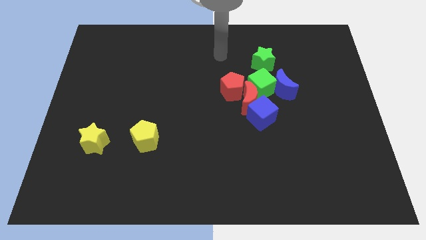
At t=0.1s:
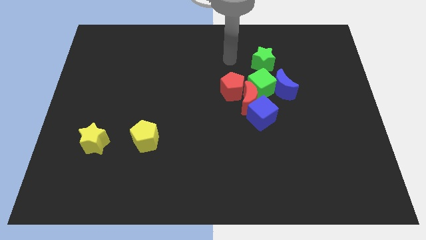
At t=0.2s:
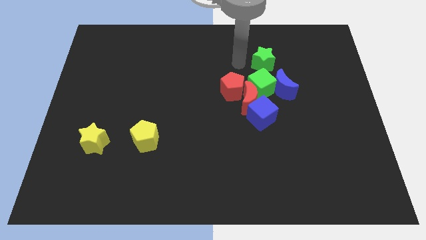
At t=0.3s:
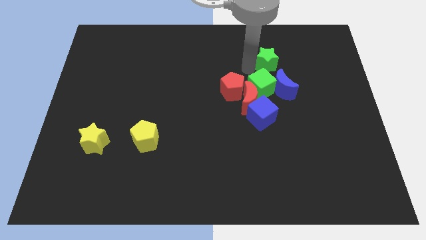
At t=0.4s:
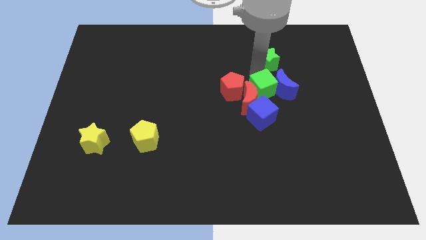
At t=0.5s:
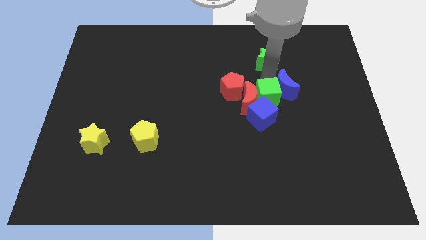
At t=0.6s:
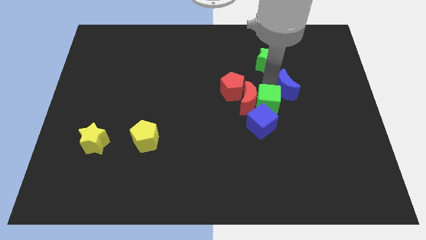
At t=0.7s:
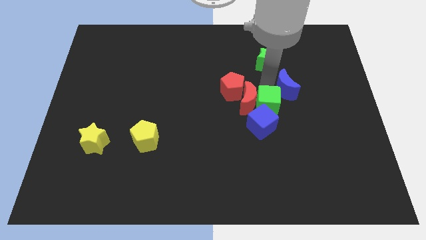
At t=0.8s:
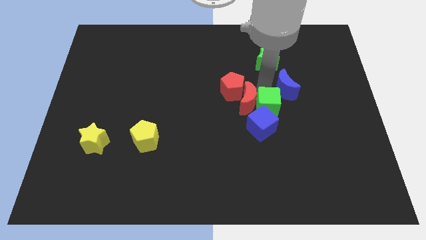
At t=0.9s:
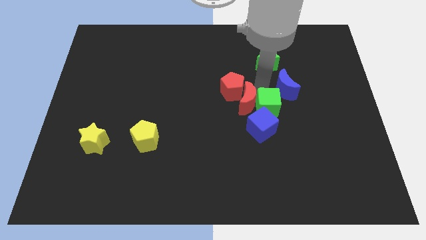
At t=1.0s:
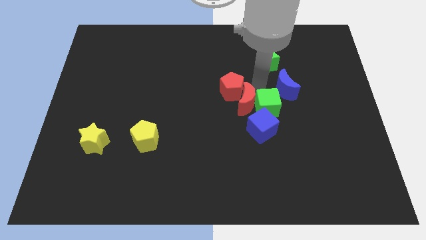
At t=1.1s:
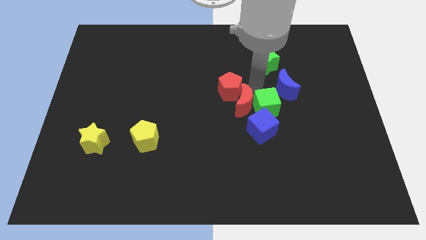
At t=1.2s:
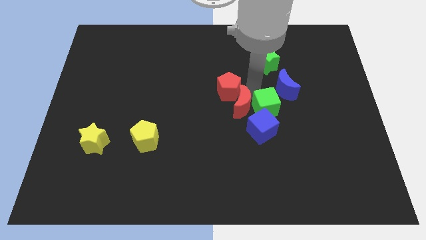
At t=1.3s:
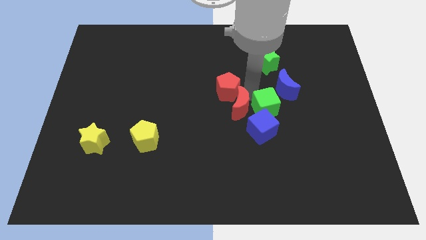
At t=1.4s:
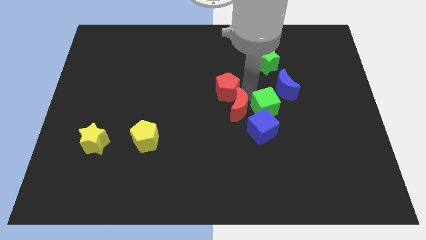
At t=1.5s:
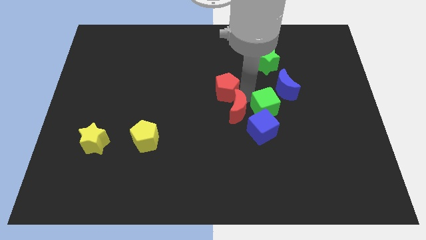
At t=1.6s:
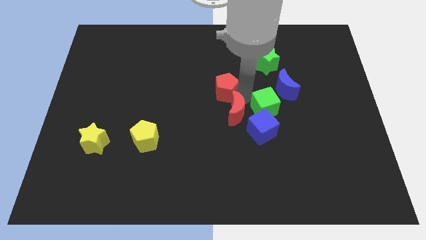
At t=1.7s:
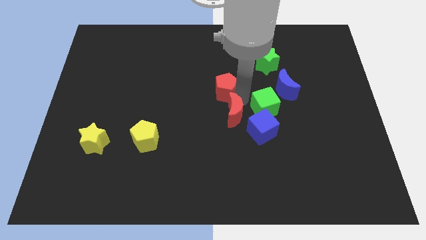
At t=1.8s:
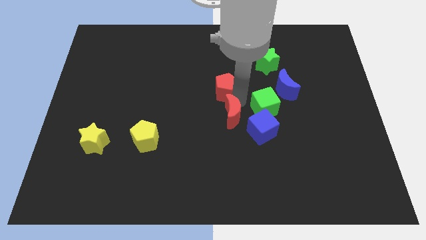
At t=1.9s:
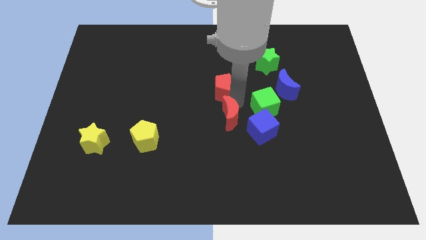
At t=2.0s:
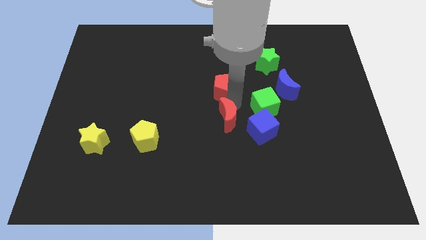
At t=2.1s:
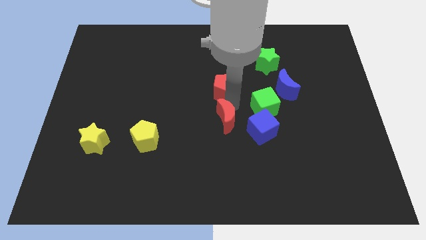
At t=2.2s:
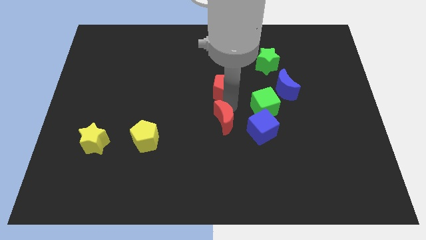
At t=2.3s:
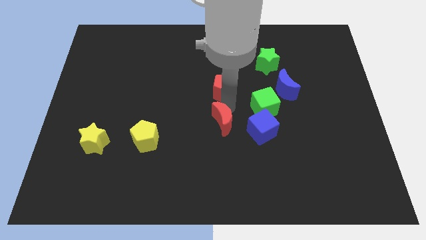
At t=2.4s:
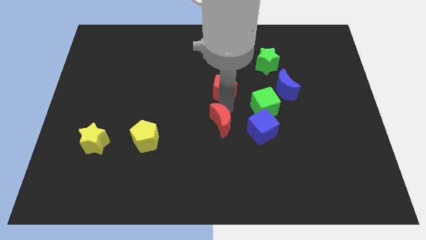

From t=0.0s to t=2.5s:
move the red moon away from the group of blocks

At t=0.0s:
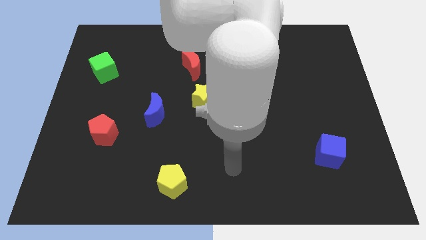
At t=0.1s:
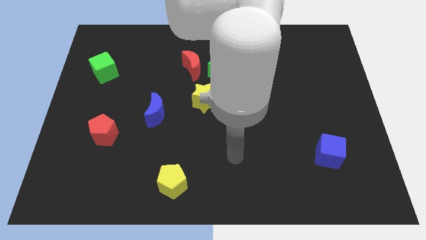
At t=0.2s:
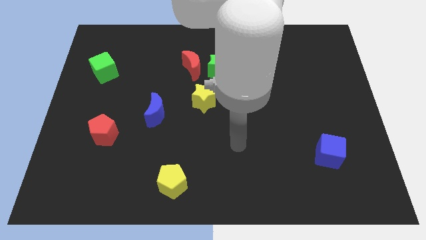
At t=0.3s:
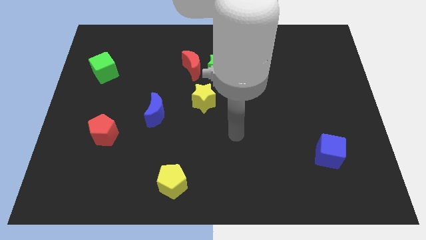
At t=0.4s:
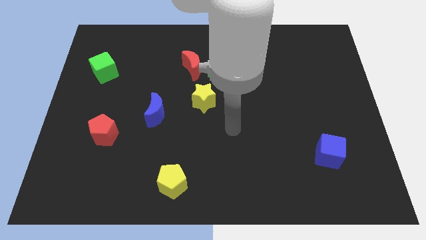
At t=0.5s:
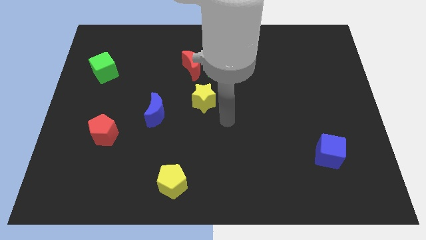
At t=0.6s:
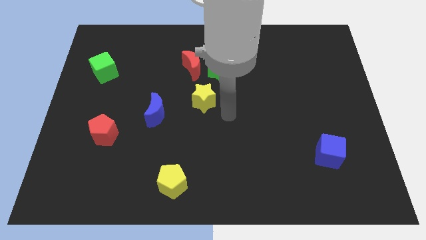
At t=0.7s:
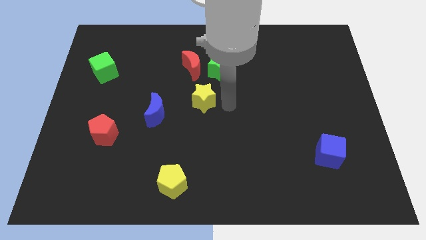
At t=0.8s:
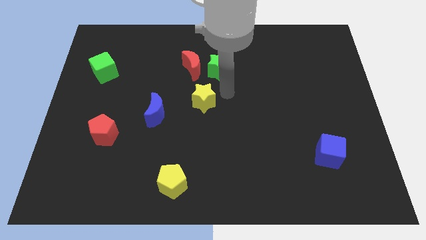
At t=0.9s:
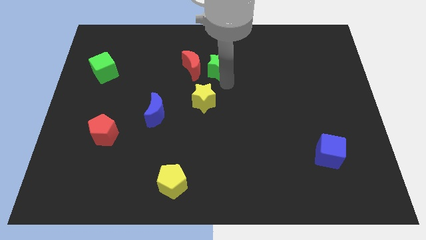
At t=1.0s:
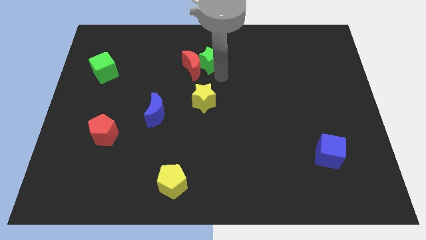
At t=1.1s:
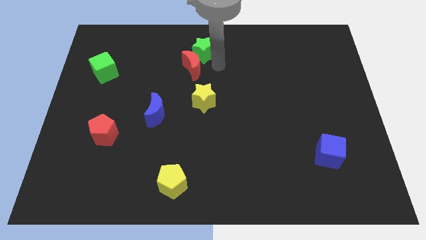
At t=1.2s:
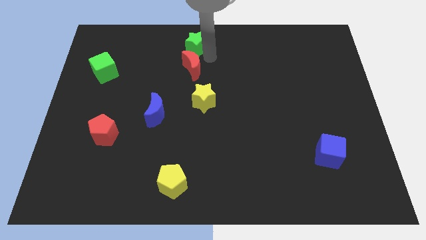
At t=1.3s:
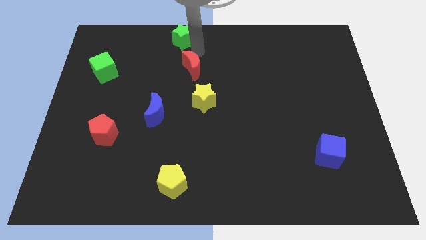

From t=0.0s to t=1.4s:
move the red moon away from the green star

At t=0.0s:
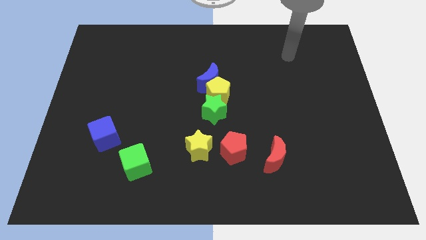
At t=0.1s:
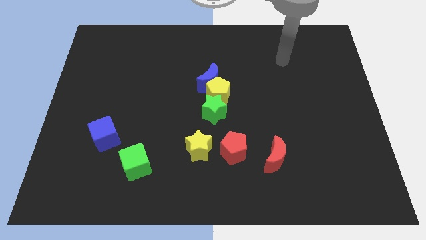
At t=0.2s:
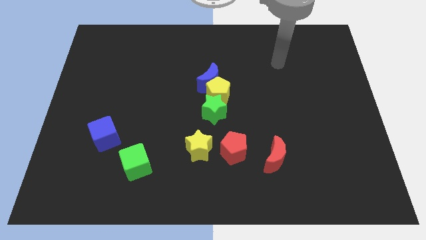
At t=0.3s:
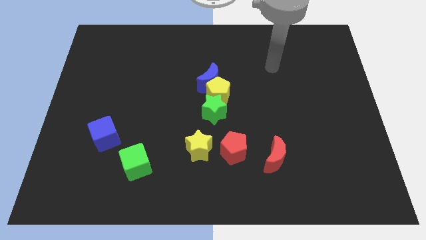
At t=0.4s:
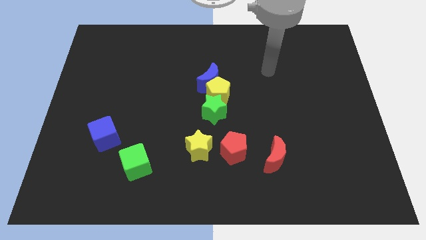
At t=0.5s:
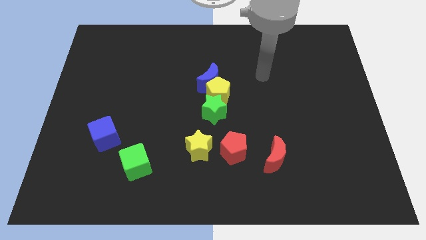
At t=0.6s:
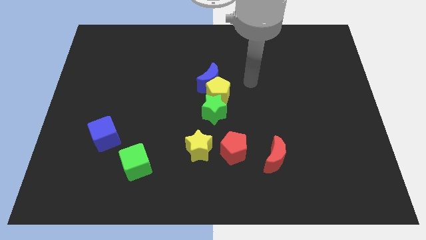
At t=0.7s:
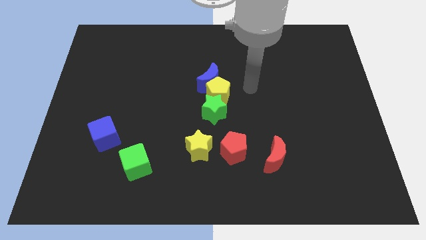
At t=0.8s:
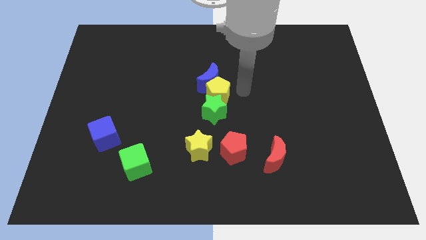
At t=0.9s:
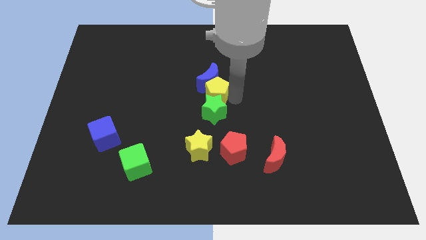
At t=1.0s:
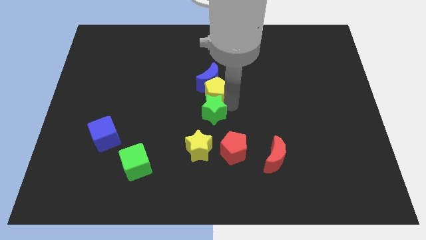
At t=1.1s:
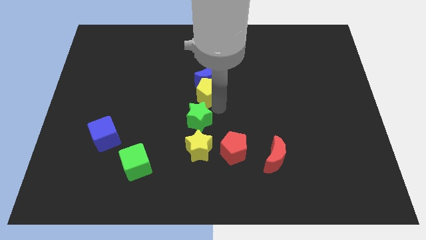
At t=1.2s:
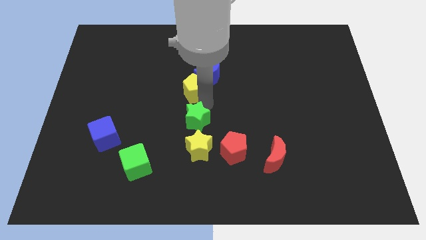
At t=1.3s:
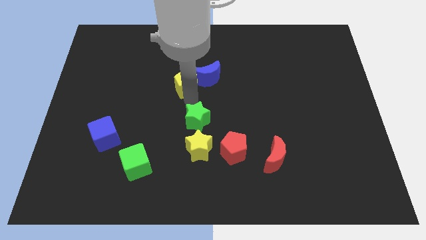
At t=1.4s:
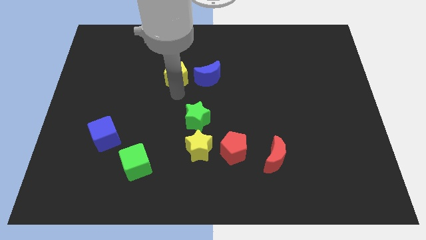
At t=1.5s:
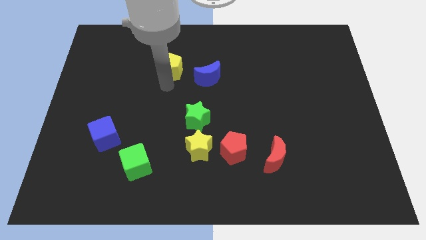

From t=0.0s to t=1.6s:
separate the yellow pentagon from the blue moon and green star

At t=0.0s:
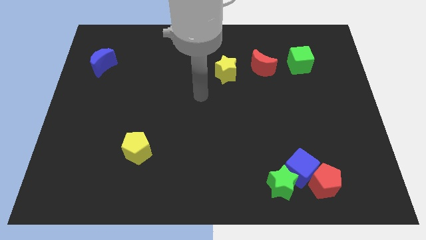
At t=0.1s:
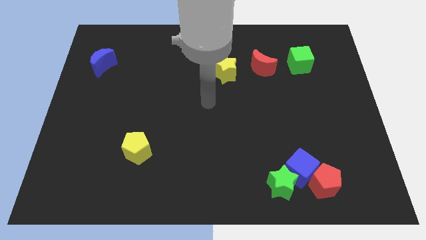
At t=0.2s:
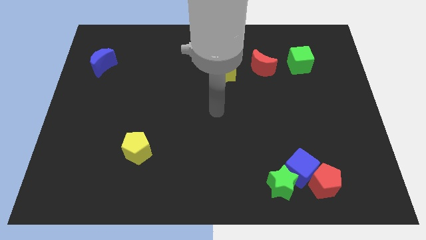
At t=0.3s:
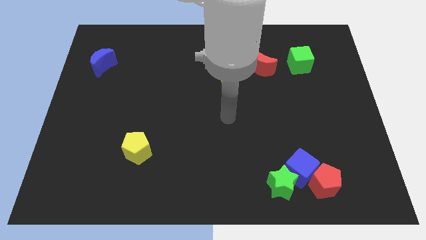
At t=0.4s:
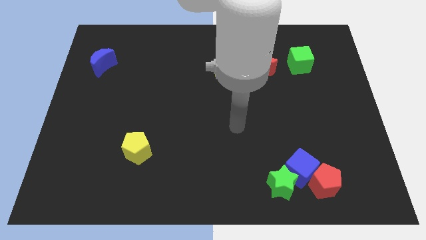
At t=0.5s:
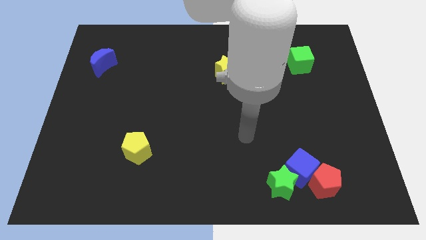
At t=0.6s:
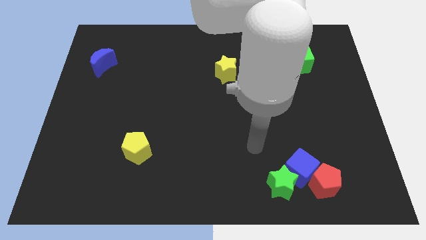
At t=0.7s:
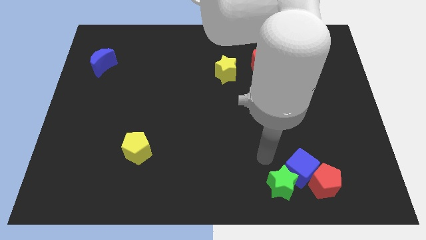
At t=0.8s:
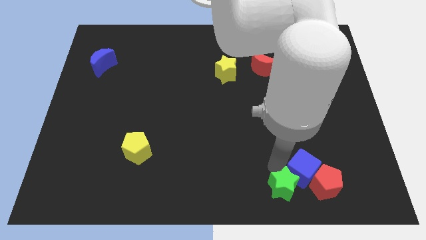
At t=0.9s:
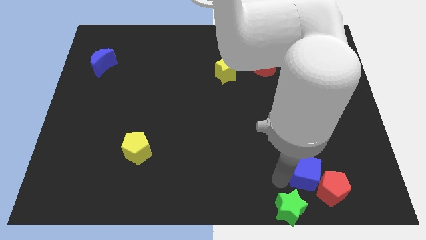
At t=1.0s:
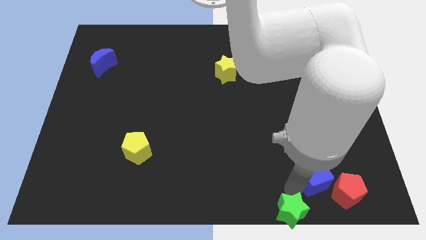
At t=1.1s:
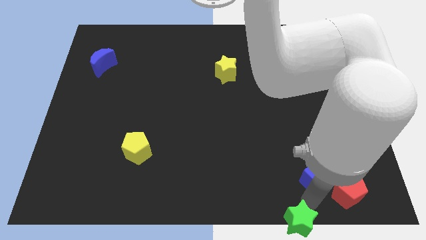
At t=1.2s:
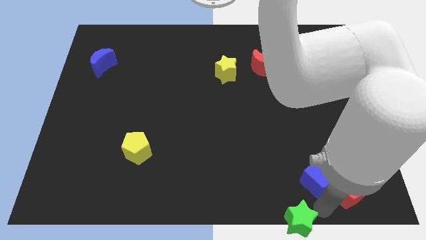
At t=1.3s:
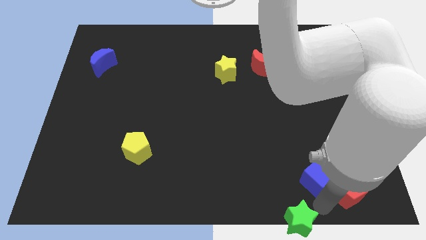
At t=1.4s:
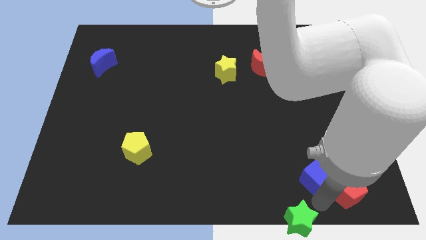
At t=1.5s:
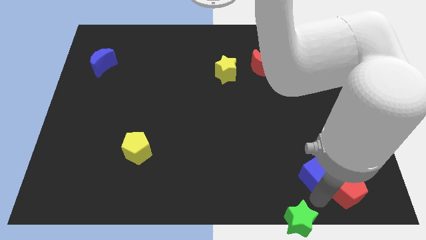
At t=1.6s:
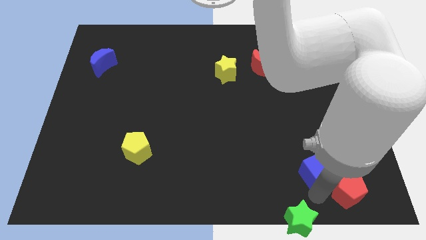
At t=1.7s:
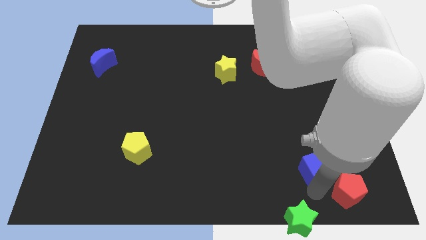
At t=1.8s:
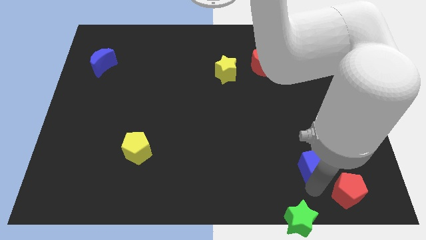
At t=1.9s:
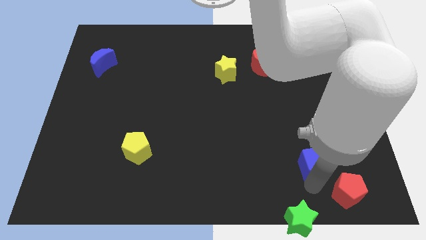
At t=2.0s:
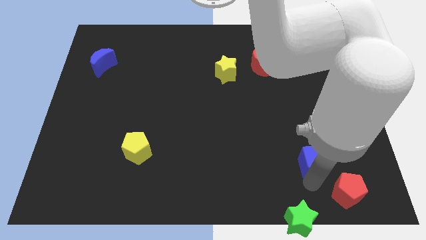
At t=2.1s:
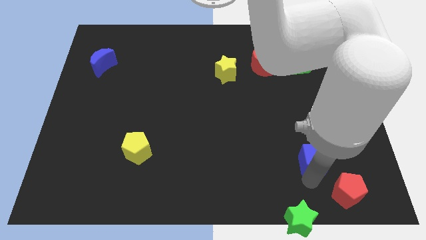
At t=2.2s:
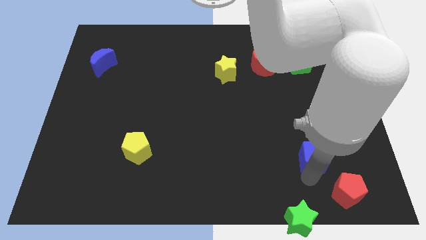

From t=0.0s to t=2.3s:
move the blue cube away from the green star and red pentagon

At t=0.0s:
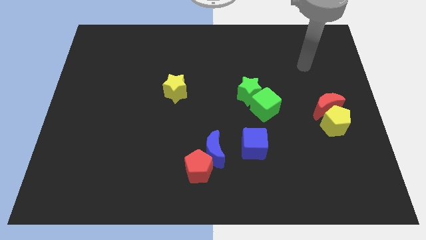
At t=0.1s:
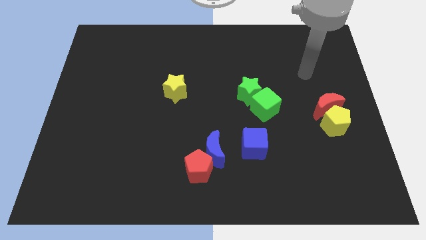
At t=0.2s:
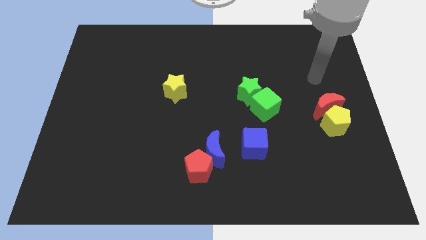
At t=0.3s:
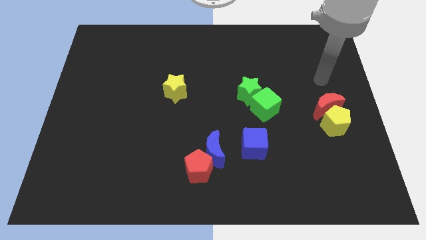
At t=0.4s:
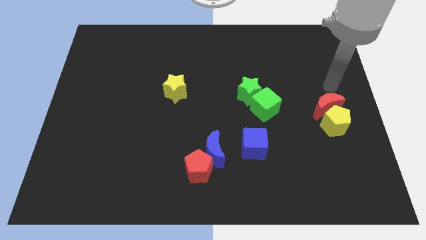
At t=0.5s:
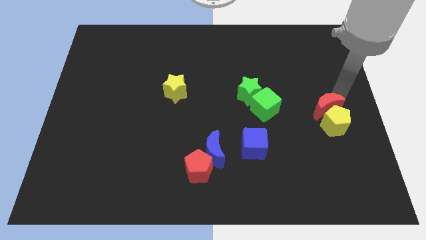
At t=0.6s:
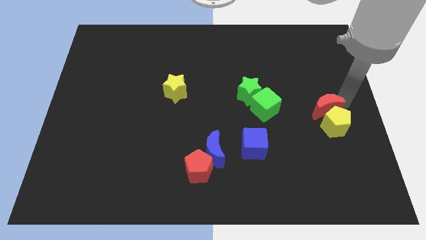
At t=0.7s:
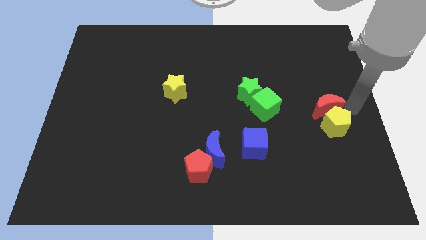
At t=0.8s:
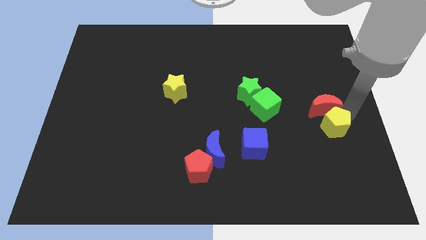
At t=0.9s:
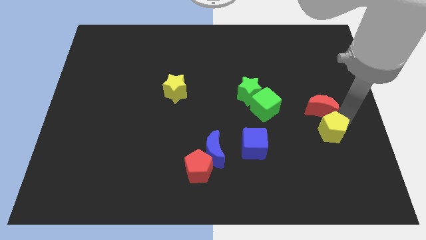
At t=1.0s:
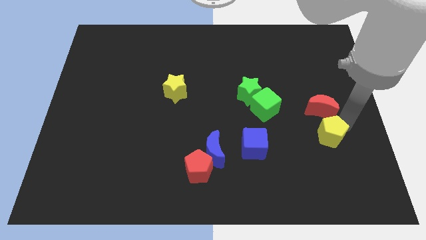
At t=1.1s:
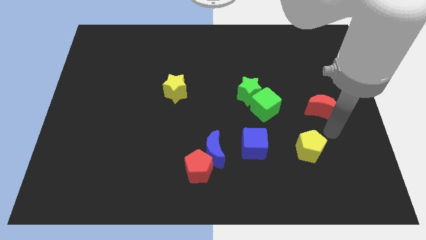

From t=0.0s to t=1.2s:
separate the red moon from the yellow pentagon

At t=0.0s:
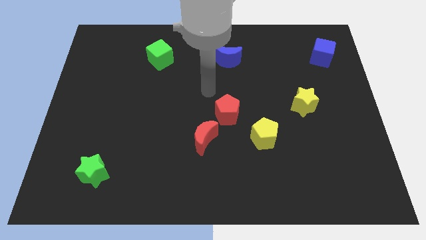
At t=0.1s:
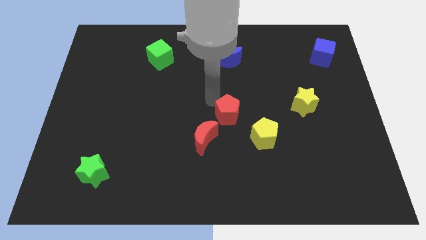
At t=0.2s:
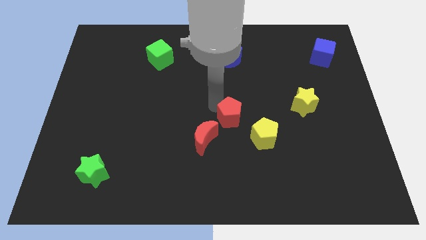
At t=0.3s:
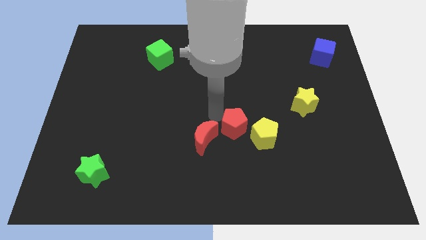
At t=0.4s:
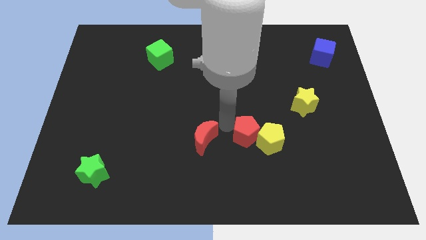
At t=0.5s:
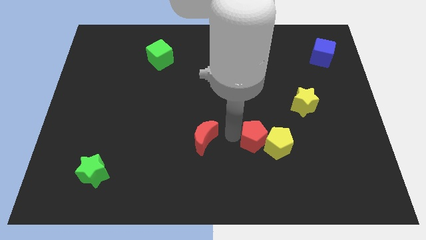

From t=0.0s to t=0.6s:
move the red moon away from the red pentagon
